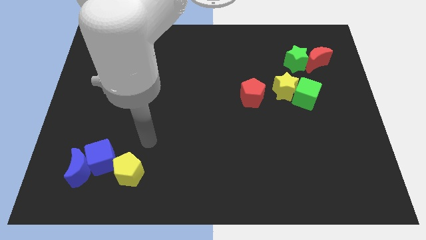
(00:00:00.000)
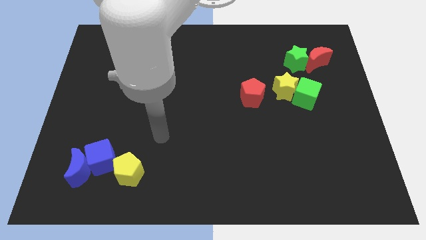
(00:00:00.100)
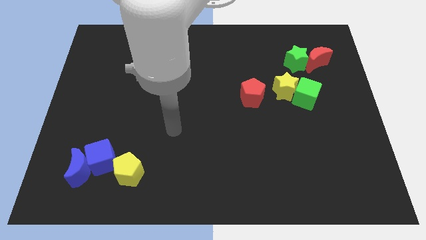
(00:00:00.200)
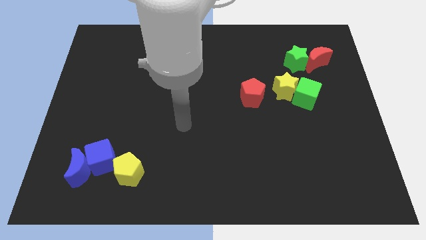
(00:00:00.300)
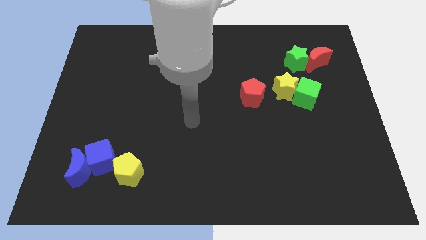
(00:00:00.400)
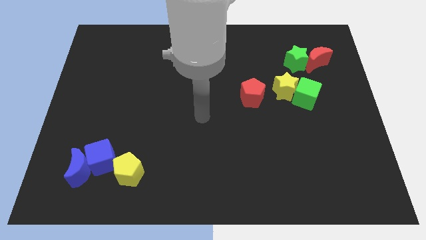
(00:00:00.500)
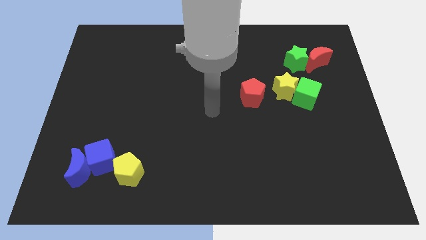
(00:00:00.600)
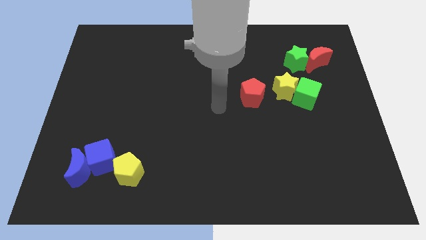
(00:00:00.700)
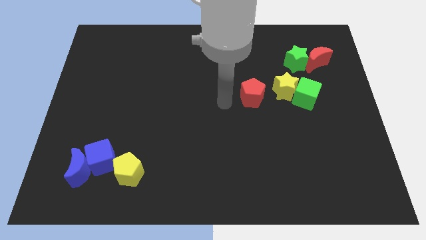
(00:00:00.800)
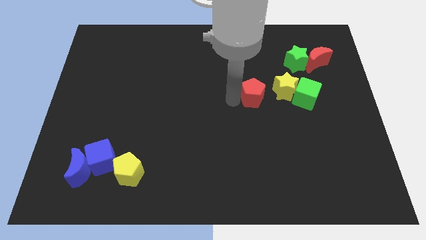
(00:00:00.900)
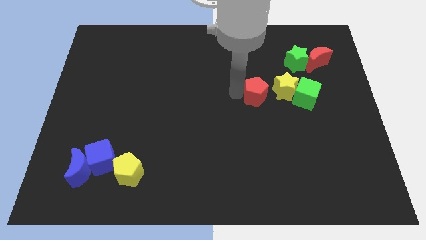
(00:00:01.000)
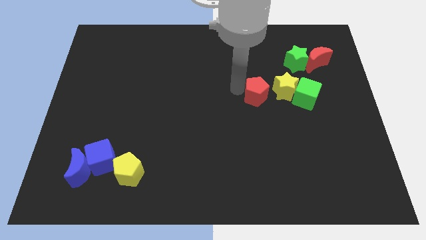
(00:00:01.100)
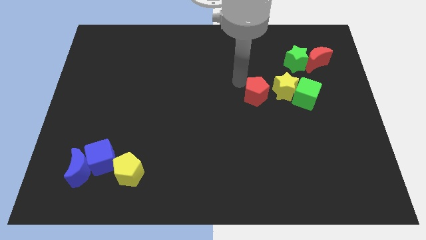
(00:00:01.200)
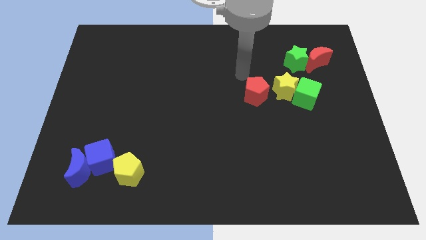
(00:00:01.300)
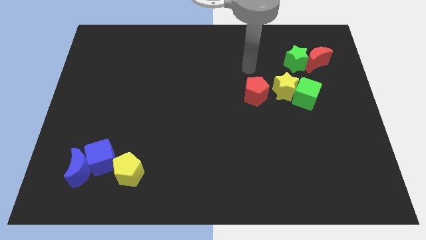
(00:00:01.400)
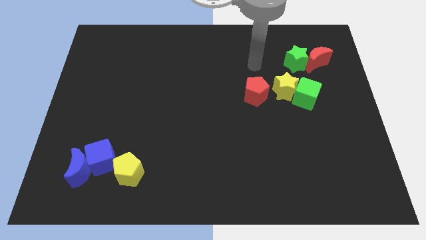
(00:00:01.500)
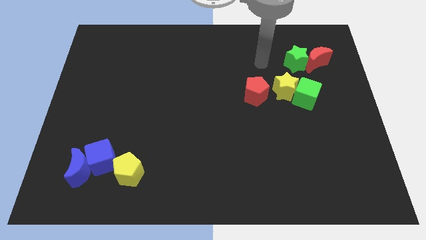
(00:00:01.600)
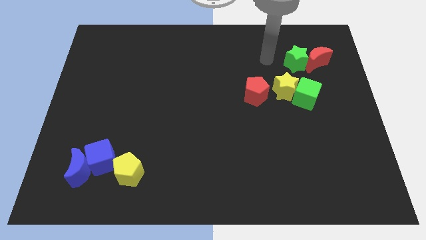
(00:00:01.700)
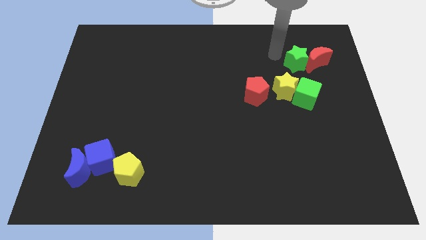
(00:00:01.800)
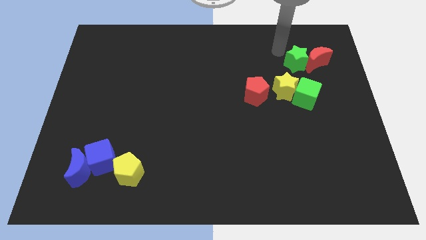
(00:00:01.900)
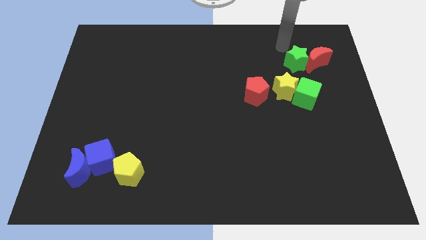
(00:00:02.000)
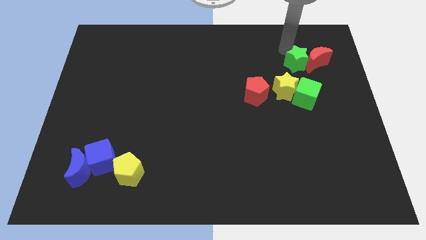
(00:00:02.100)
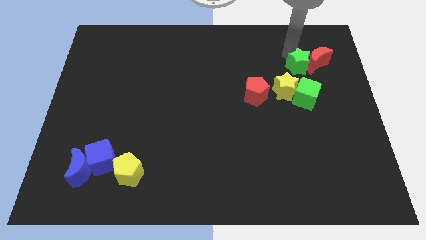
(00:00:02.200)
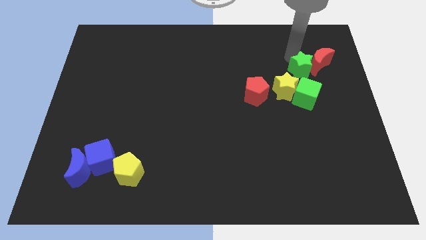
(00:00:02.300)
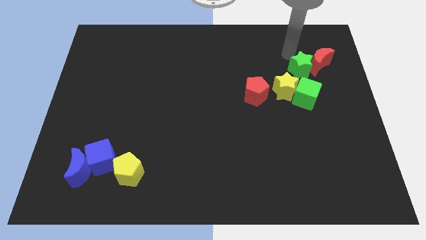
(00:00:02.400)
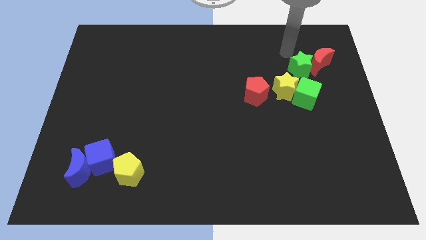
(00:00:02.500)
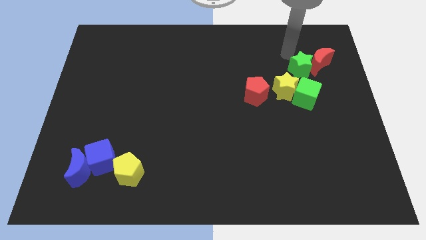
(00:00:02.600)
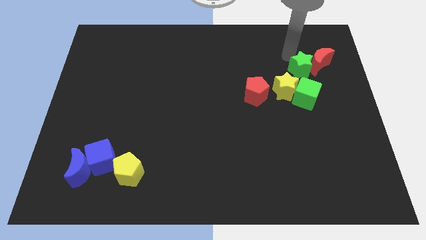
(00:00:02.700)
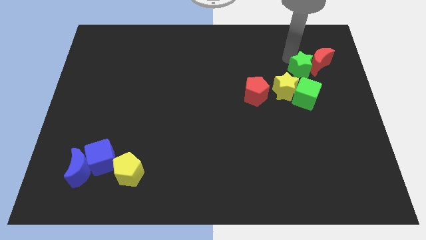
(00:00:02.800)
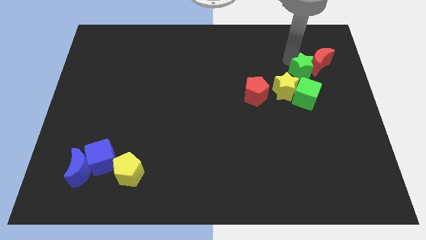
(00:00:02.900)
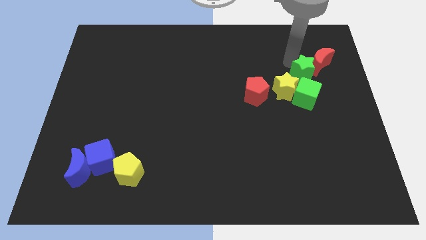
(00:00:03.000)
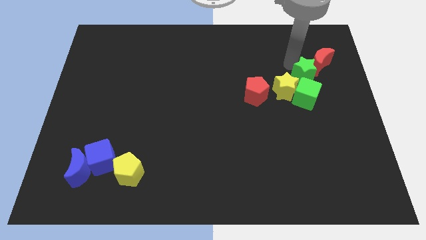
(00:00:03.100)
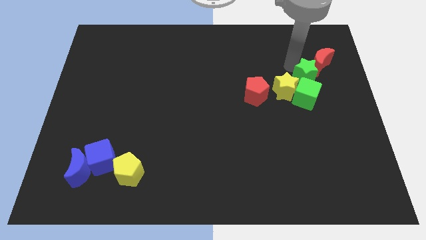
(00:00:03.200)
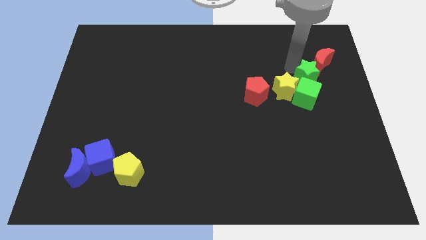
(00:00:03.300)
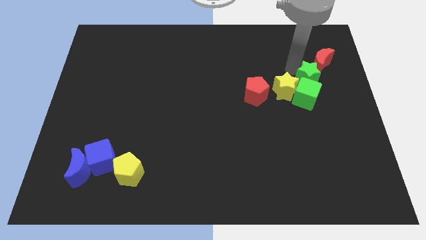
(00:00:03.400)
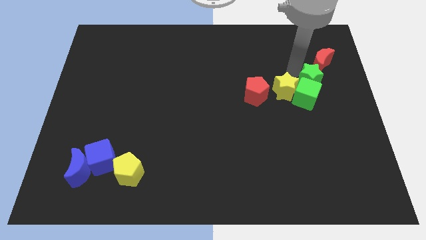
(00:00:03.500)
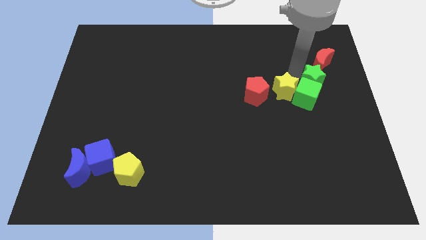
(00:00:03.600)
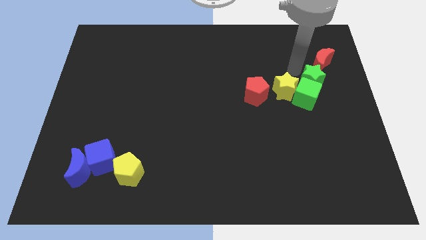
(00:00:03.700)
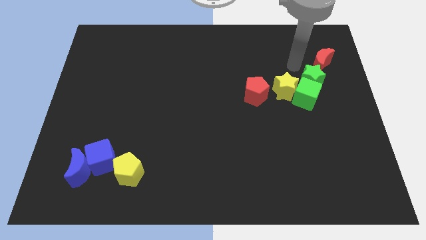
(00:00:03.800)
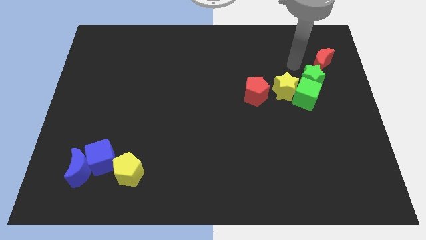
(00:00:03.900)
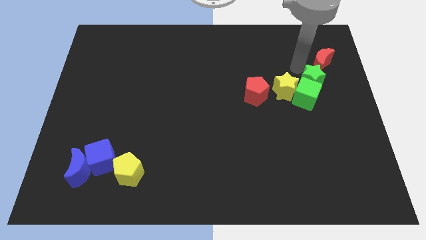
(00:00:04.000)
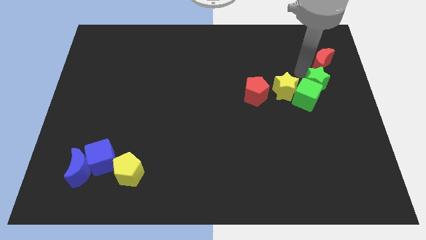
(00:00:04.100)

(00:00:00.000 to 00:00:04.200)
slightly move the green star down

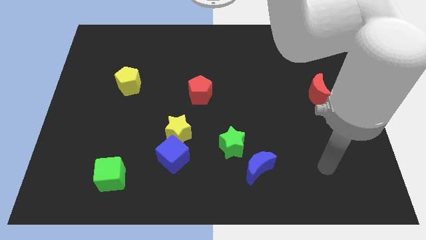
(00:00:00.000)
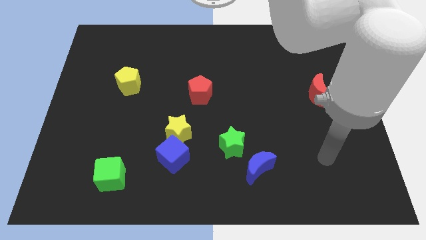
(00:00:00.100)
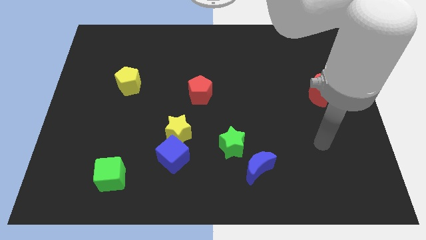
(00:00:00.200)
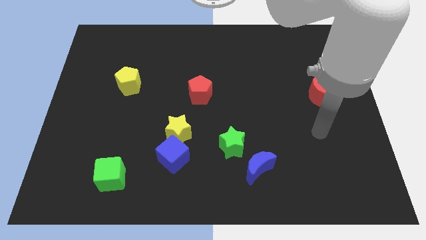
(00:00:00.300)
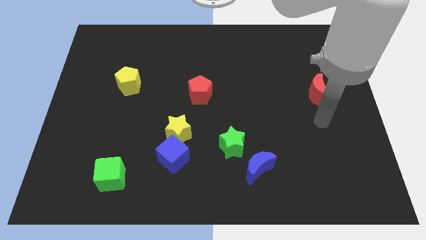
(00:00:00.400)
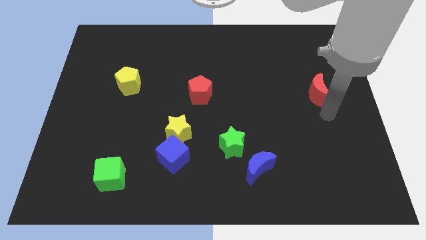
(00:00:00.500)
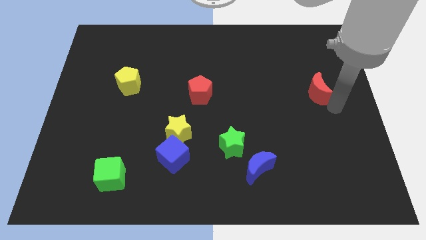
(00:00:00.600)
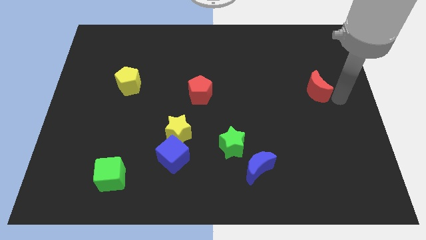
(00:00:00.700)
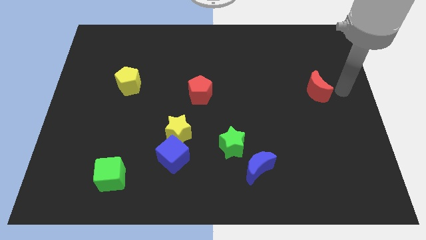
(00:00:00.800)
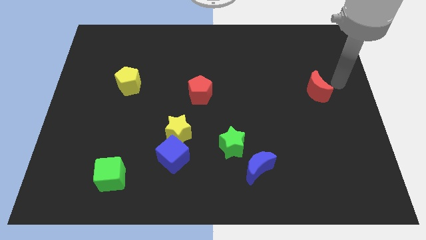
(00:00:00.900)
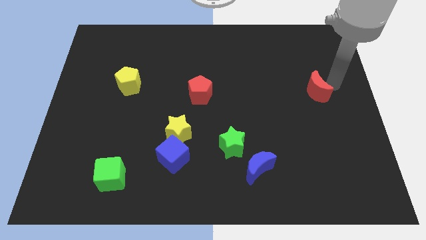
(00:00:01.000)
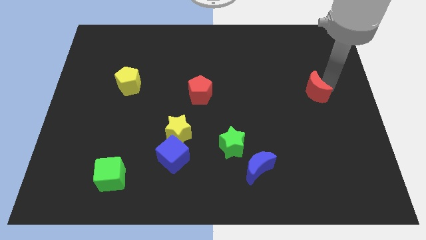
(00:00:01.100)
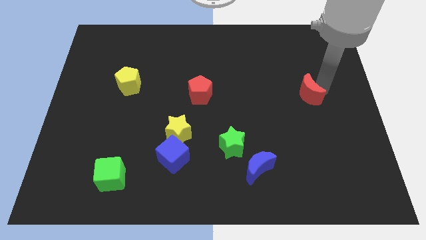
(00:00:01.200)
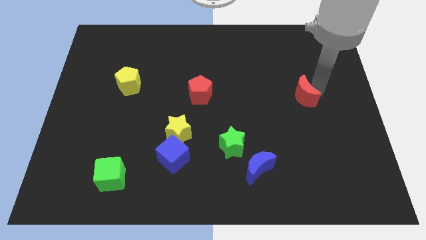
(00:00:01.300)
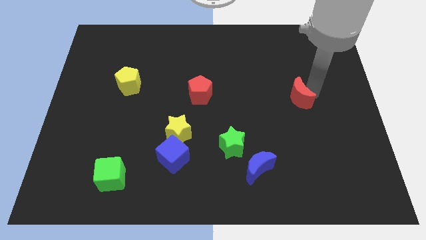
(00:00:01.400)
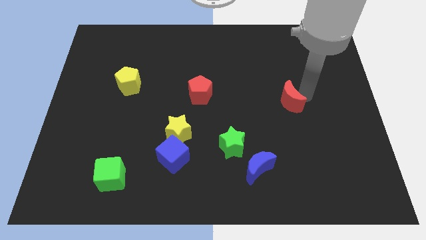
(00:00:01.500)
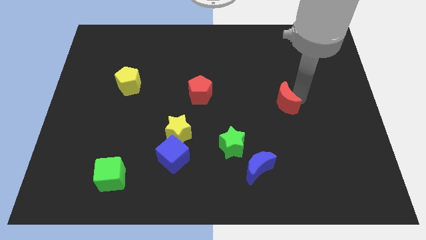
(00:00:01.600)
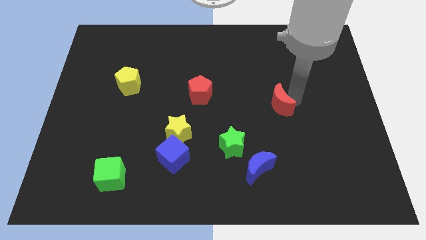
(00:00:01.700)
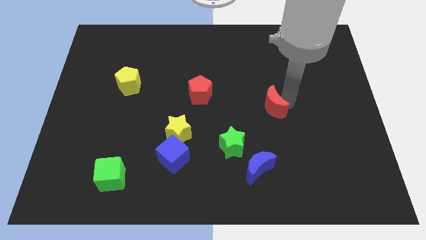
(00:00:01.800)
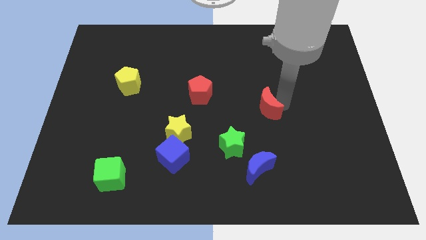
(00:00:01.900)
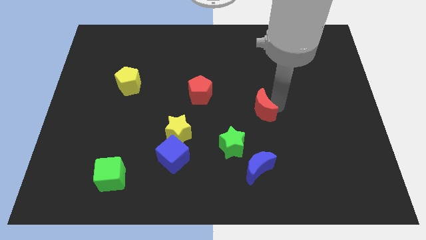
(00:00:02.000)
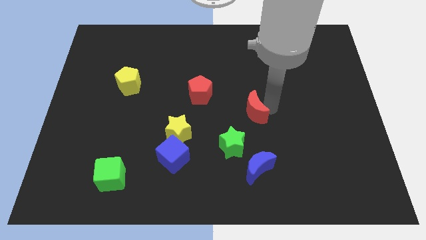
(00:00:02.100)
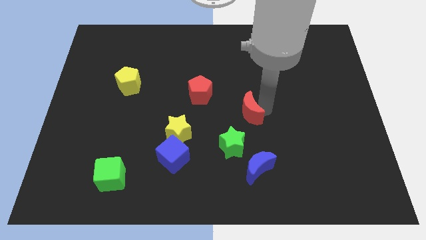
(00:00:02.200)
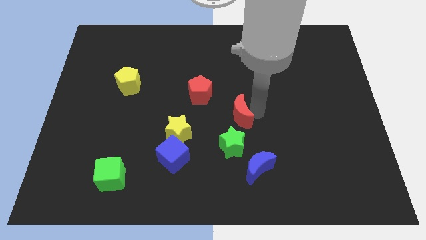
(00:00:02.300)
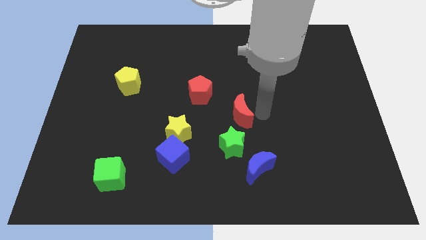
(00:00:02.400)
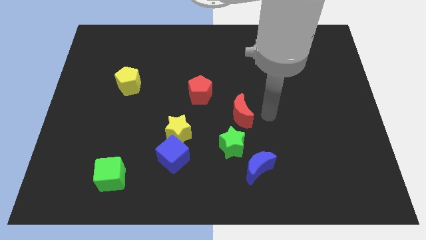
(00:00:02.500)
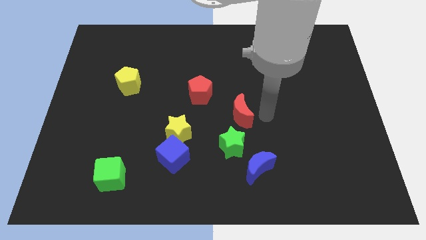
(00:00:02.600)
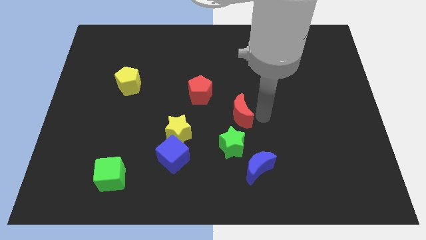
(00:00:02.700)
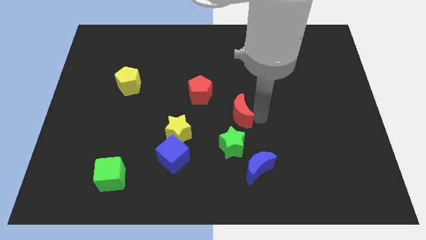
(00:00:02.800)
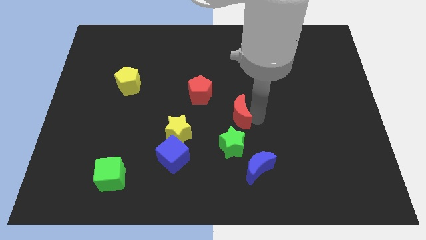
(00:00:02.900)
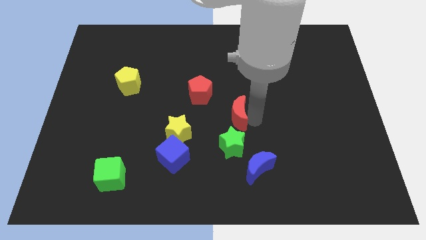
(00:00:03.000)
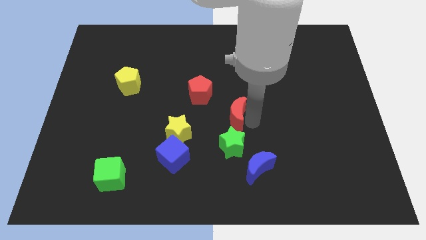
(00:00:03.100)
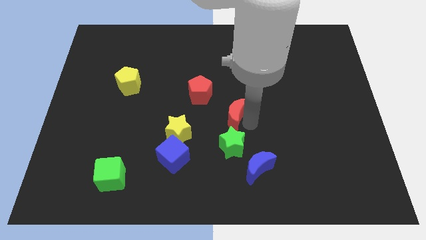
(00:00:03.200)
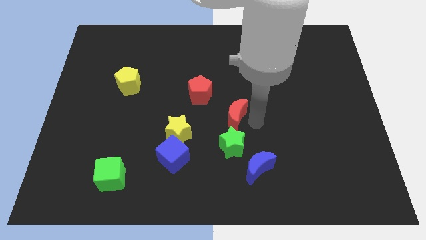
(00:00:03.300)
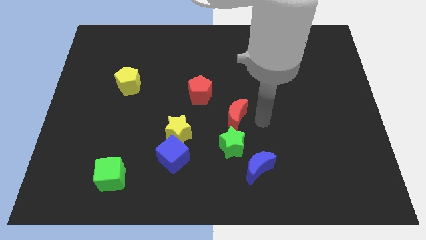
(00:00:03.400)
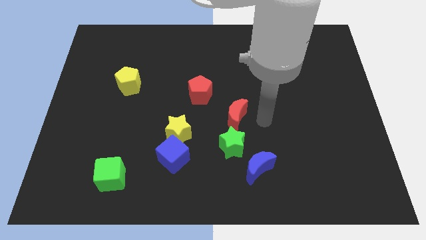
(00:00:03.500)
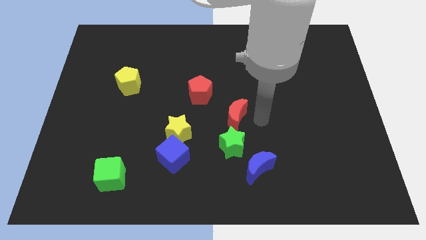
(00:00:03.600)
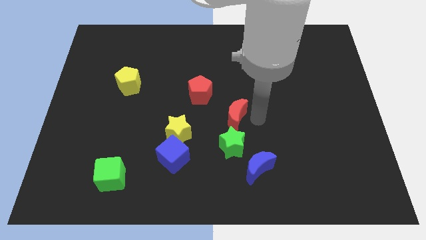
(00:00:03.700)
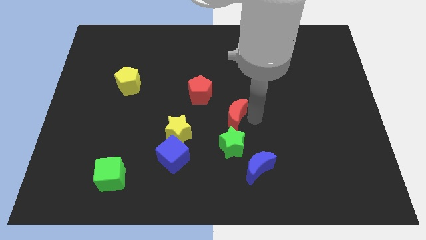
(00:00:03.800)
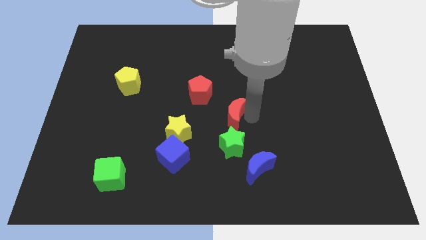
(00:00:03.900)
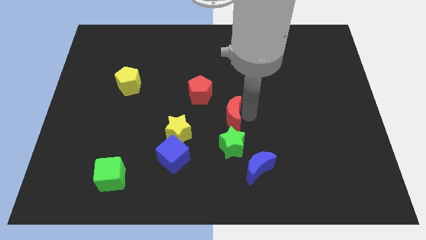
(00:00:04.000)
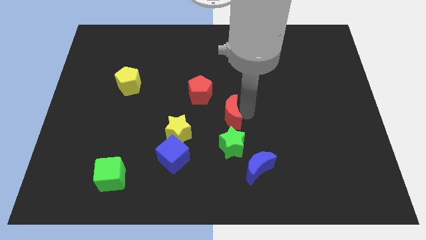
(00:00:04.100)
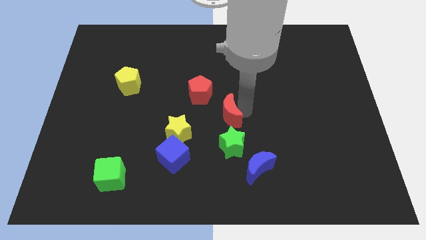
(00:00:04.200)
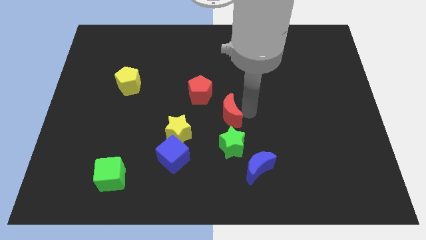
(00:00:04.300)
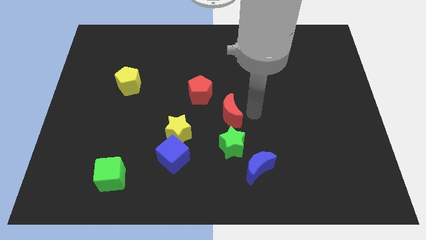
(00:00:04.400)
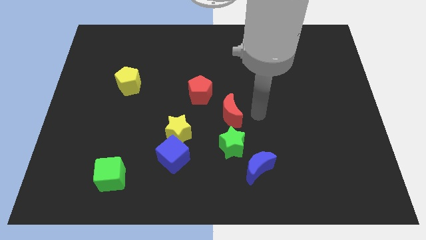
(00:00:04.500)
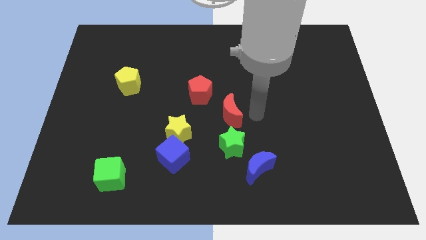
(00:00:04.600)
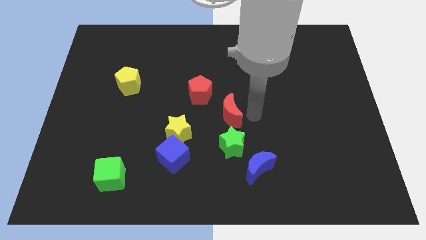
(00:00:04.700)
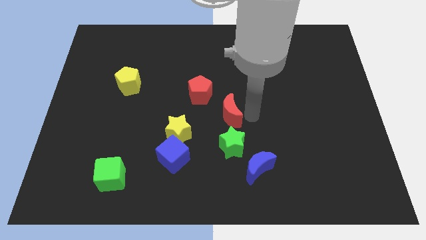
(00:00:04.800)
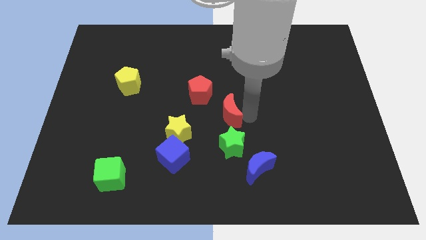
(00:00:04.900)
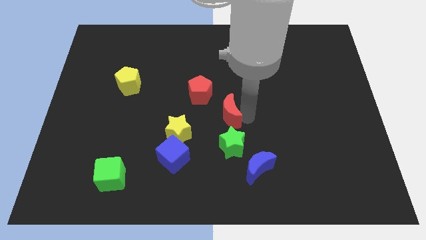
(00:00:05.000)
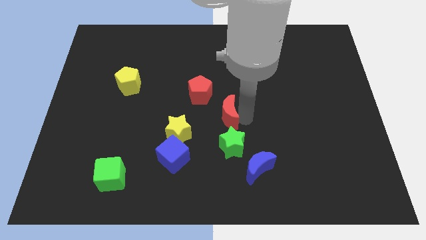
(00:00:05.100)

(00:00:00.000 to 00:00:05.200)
move the red moon to the left
